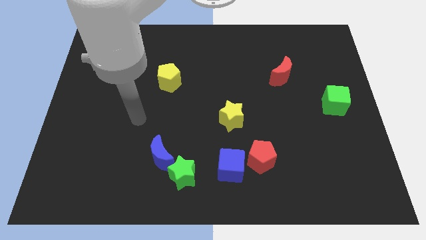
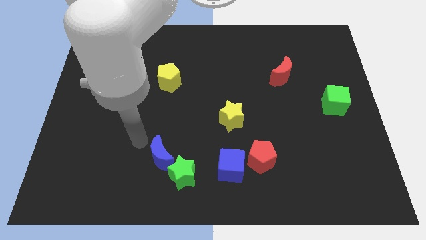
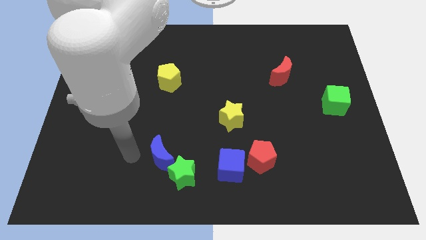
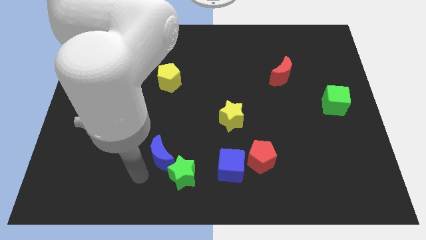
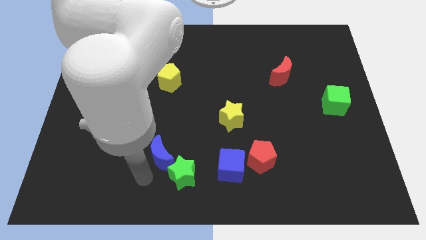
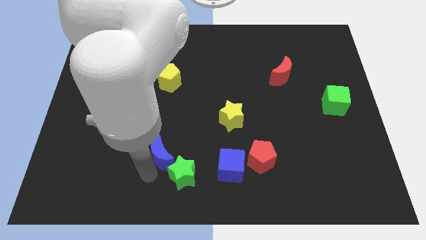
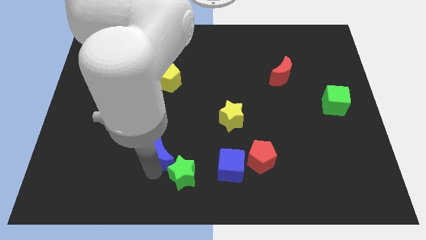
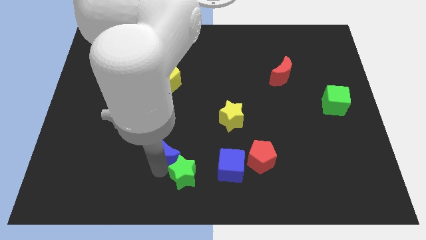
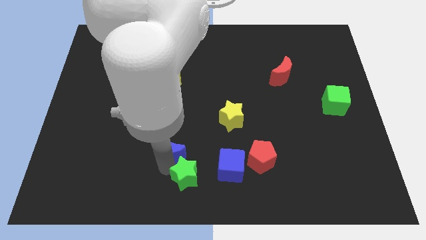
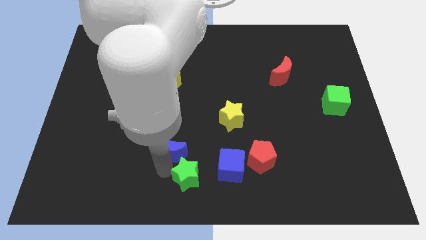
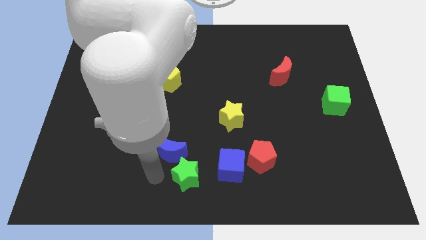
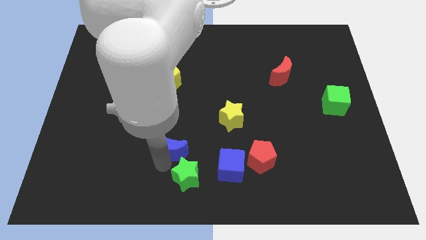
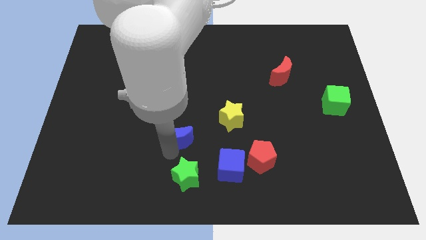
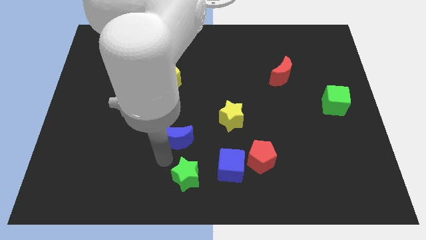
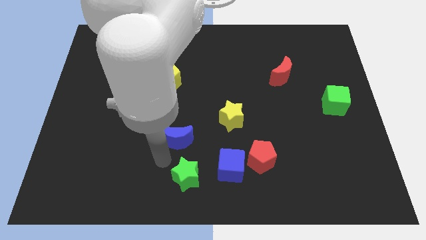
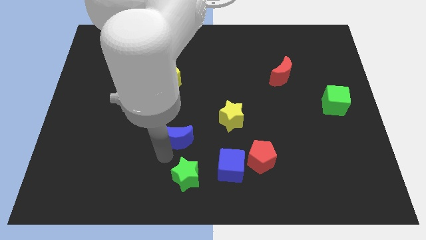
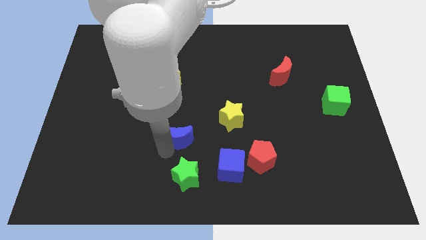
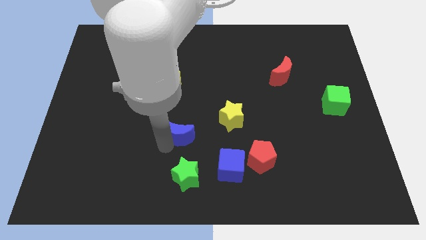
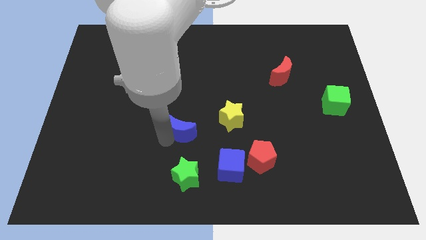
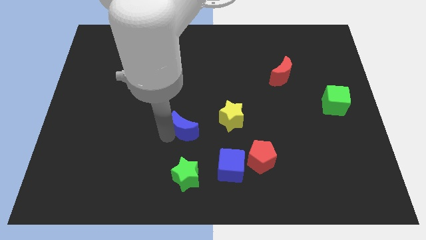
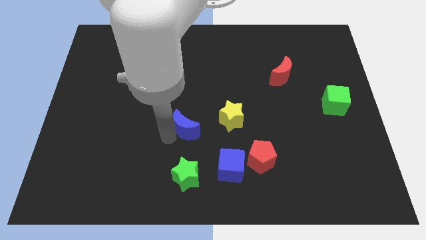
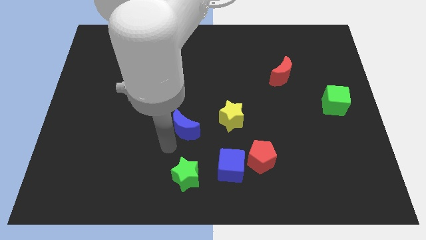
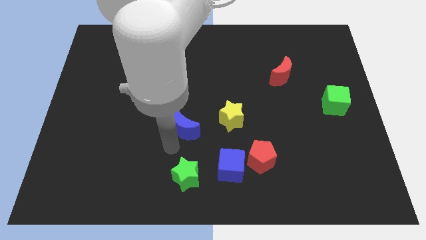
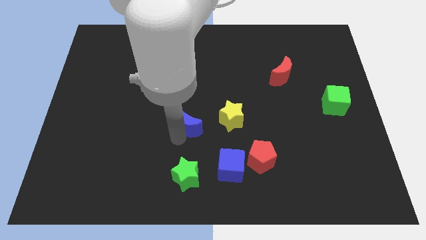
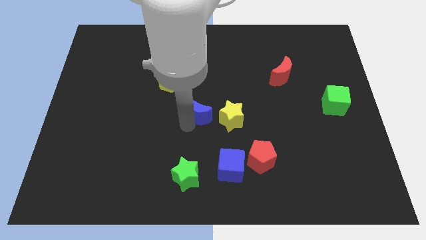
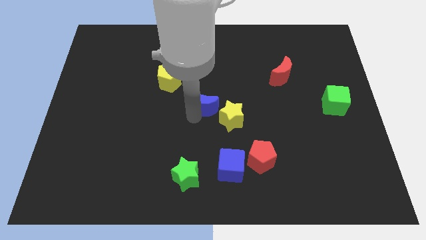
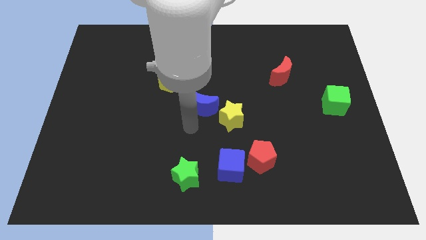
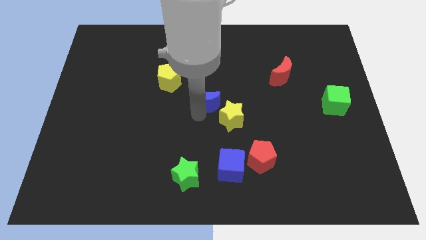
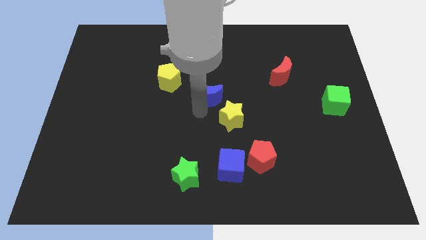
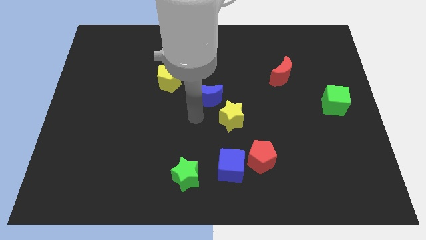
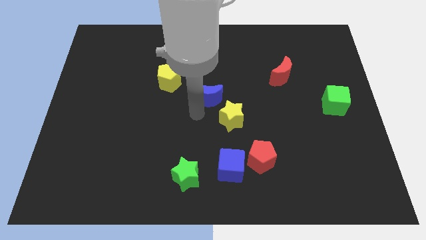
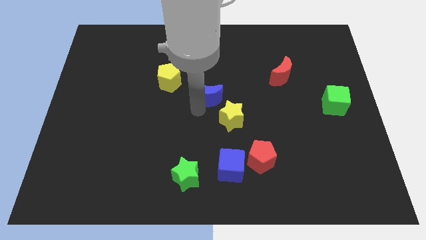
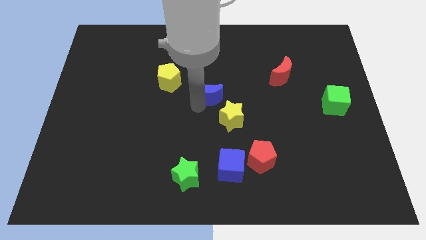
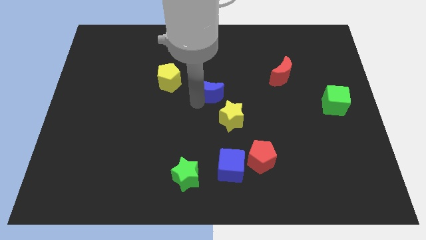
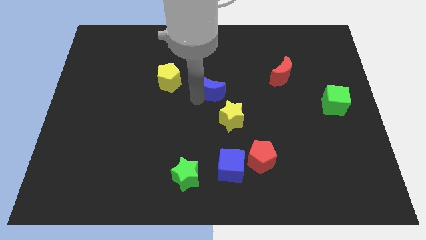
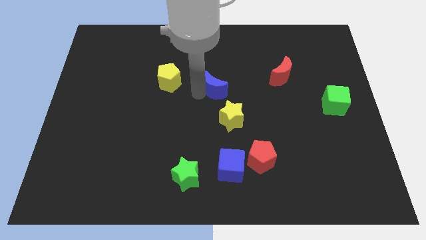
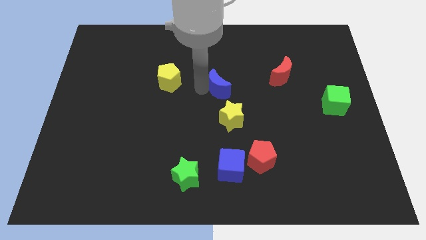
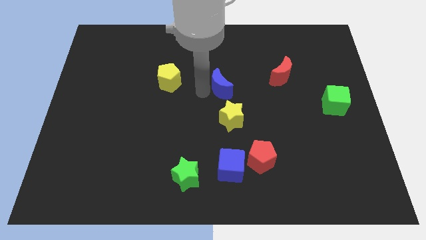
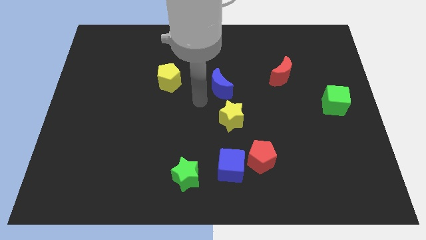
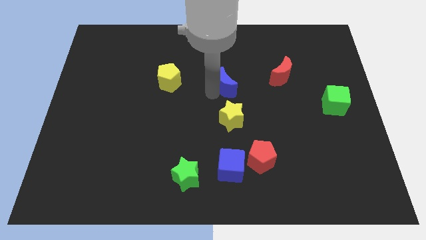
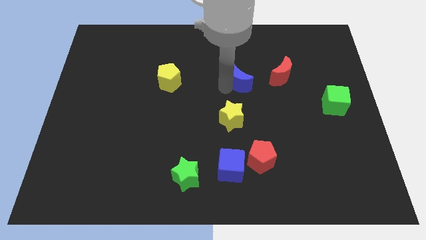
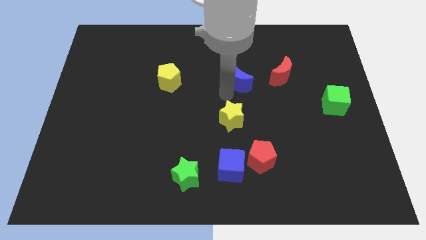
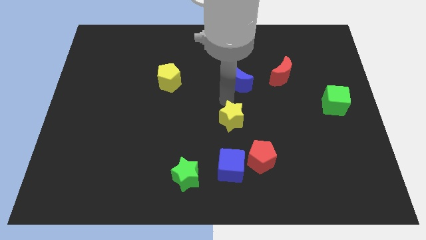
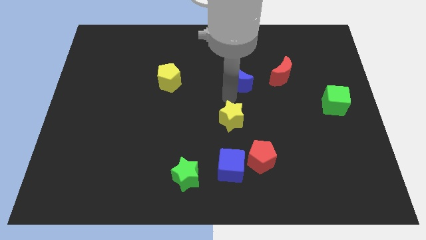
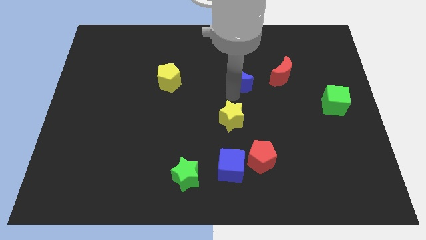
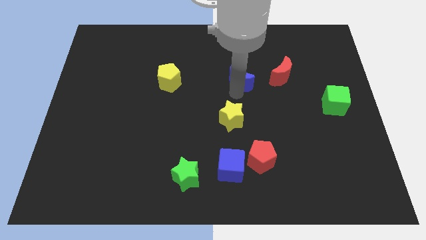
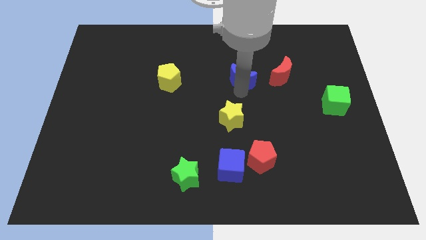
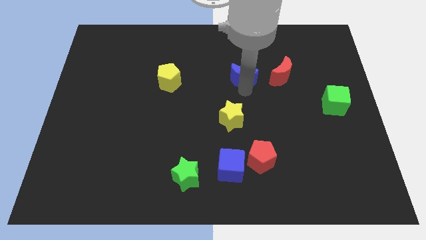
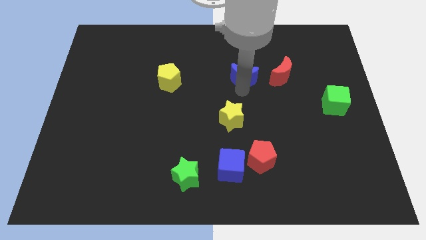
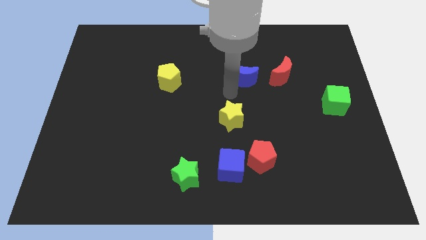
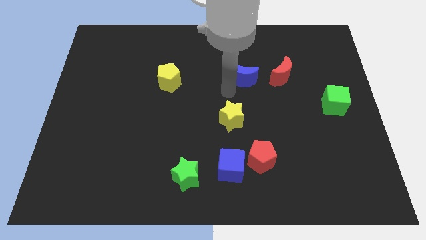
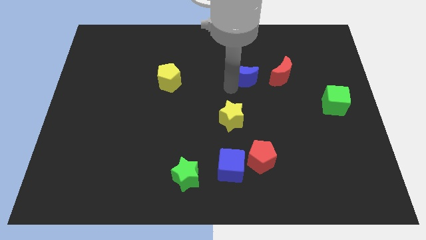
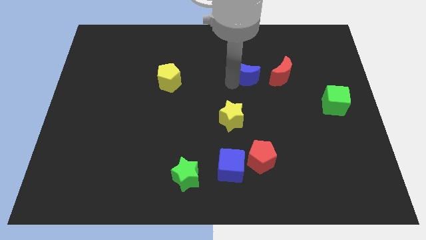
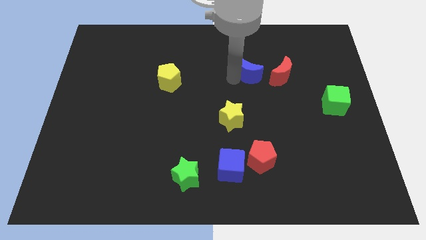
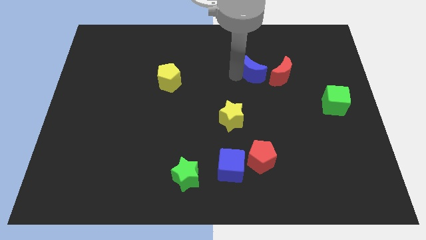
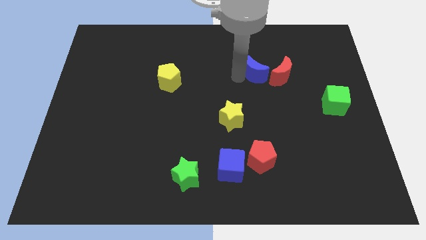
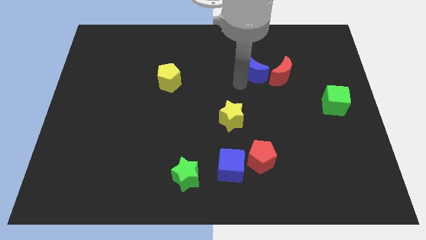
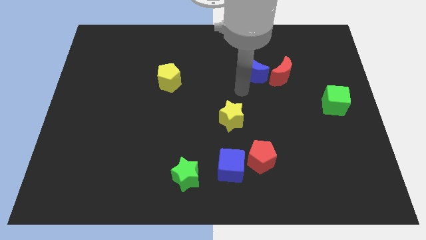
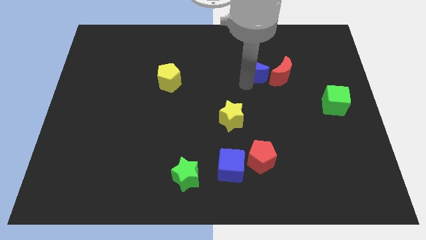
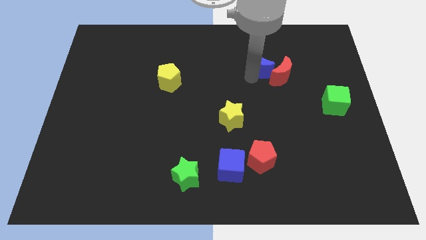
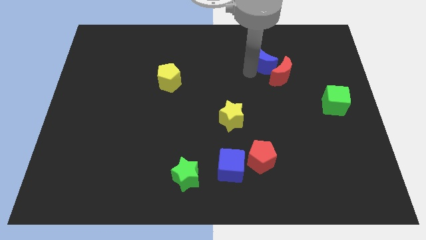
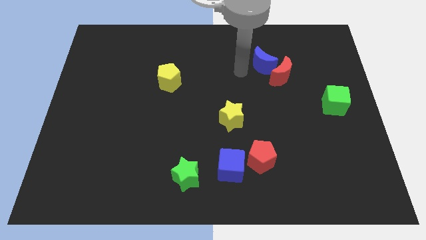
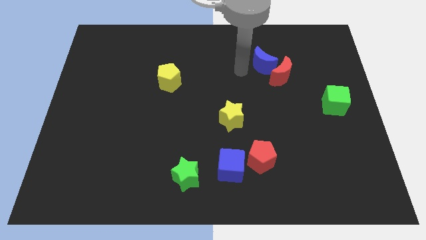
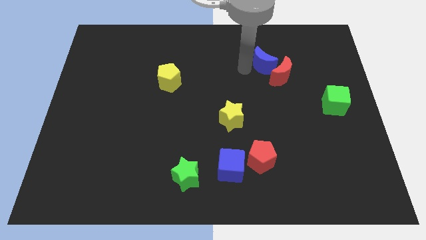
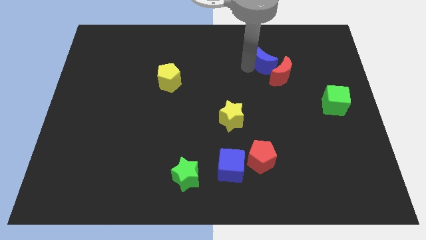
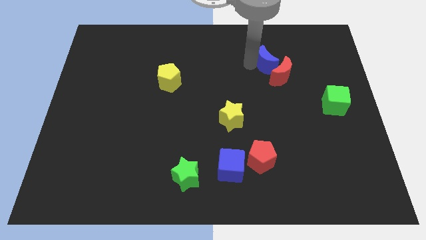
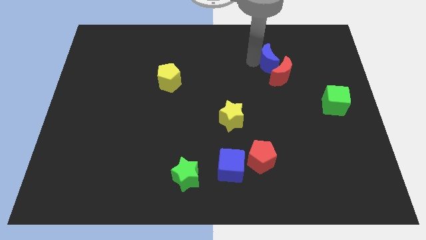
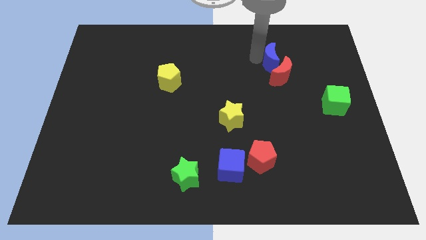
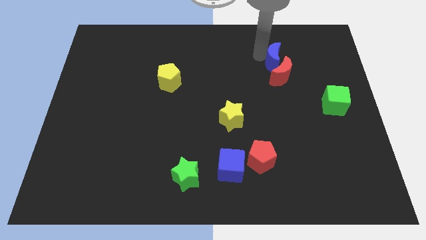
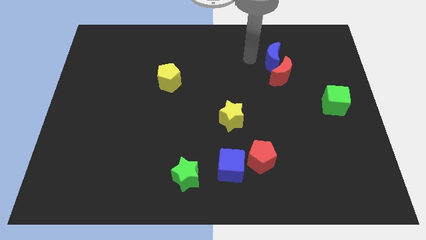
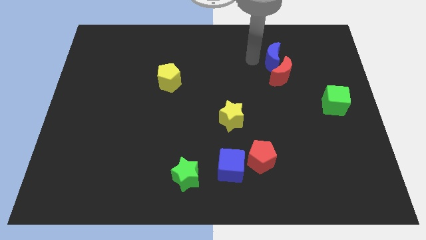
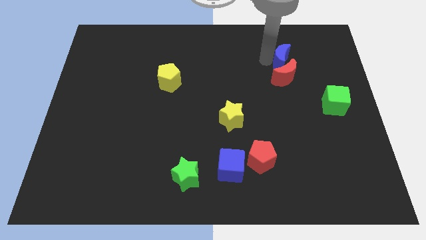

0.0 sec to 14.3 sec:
move the blue moon diagonally up and to the right of the red moon
